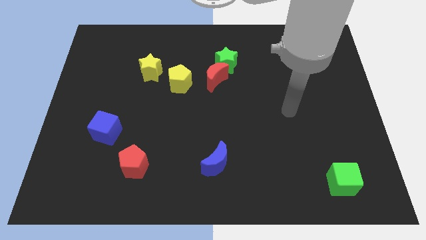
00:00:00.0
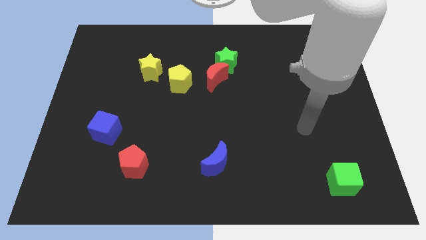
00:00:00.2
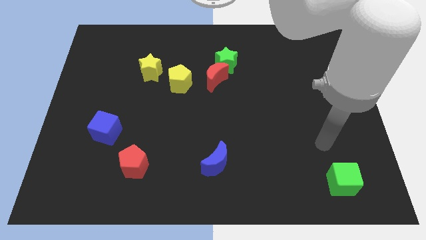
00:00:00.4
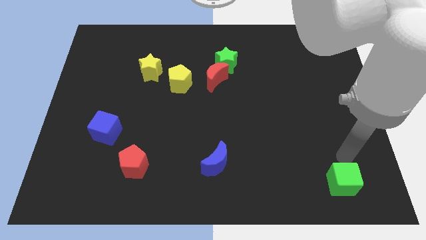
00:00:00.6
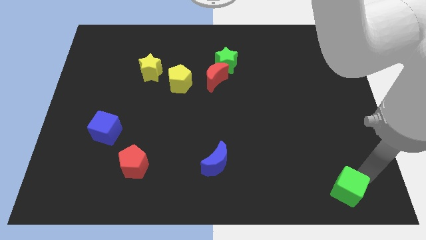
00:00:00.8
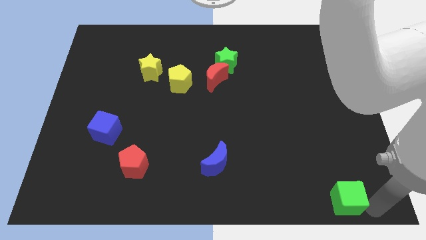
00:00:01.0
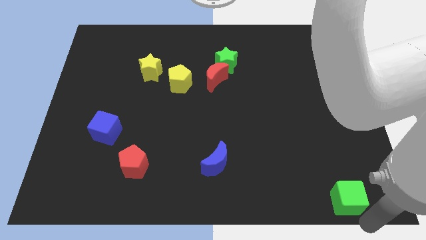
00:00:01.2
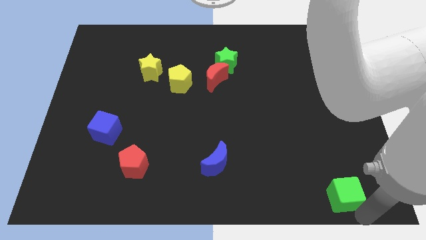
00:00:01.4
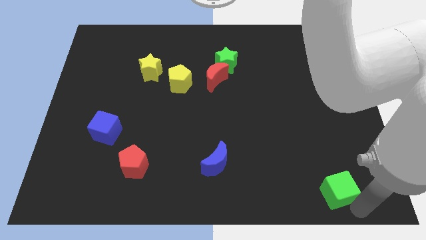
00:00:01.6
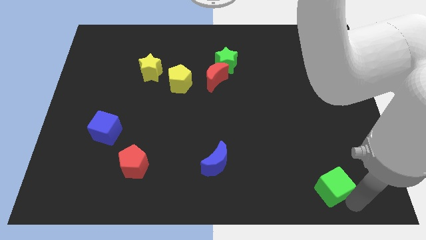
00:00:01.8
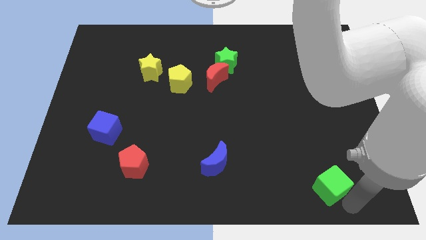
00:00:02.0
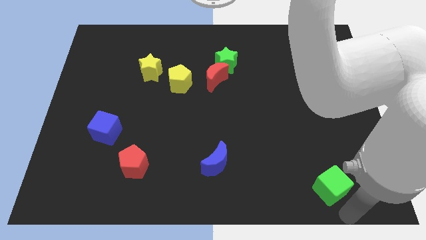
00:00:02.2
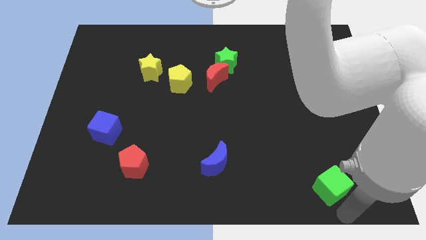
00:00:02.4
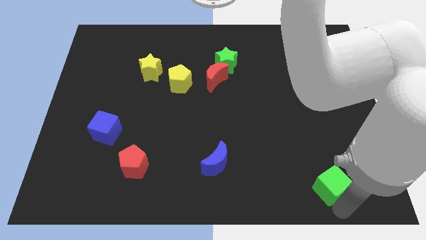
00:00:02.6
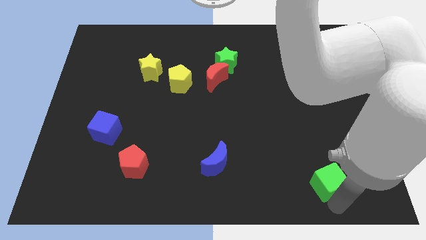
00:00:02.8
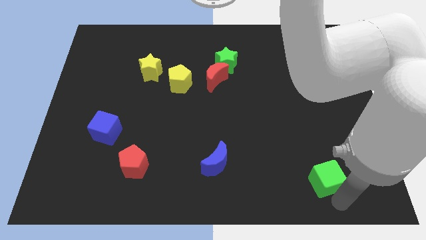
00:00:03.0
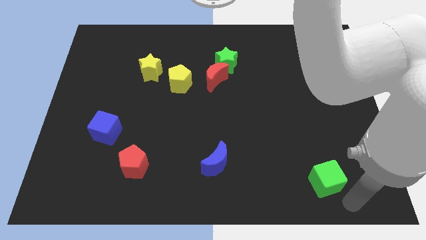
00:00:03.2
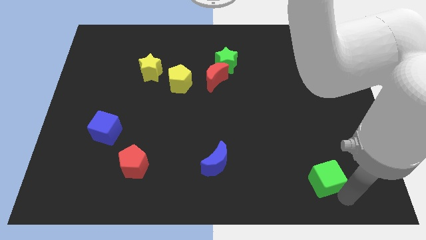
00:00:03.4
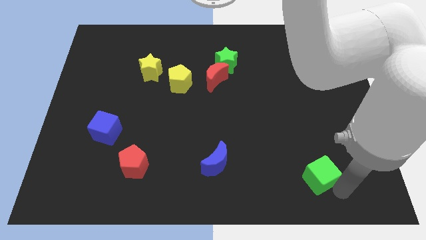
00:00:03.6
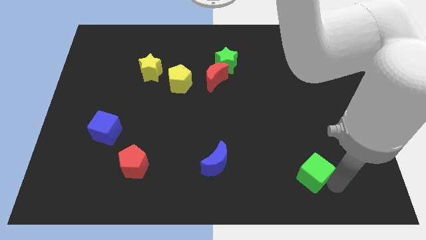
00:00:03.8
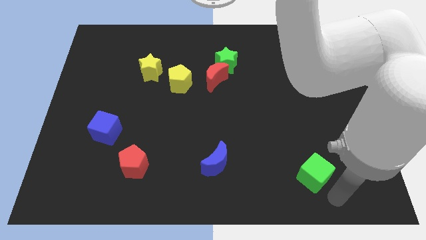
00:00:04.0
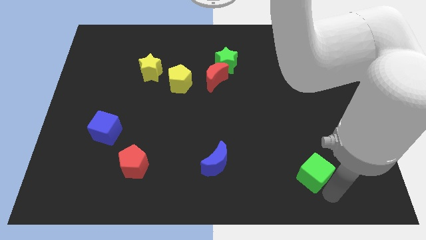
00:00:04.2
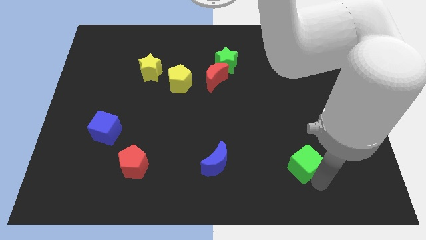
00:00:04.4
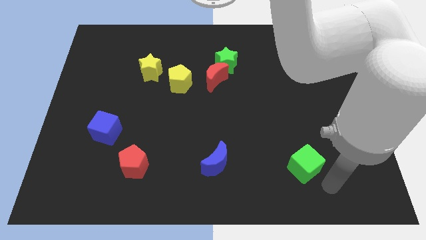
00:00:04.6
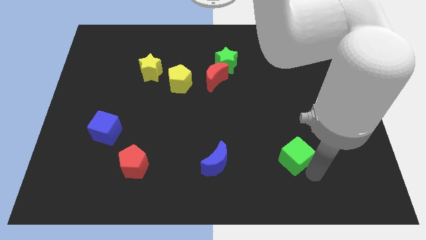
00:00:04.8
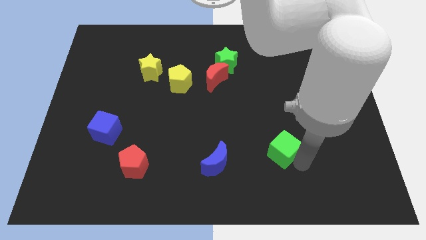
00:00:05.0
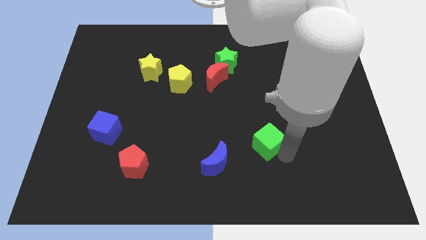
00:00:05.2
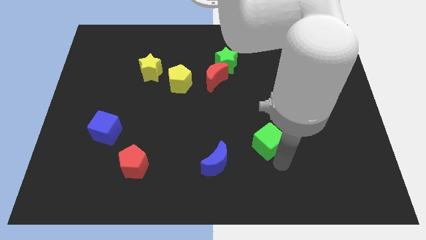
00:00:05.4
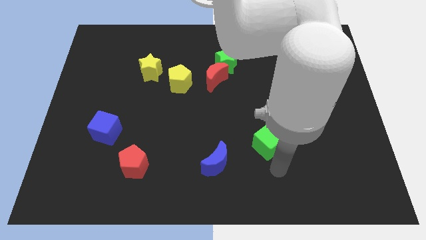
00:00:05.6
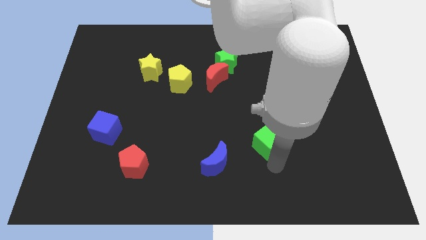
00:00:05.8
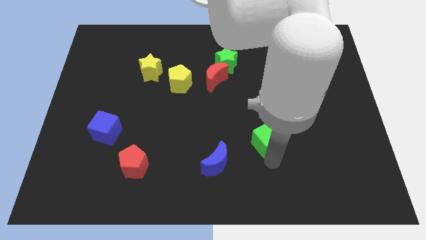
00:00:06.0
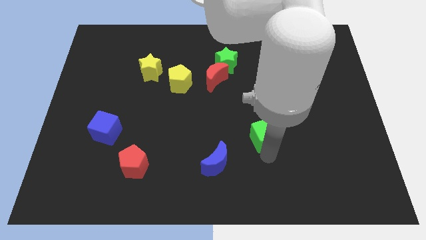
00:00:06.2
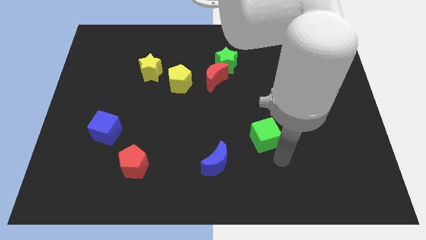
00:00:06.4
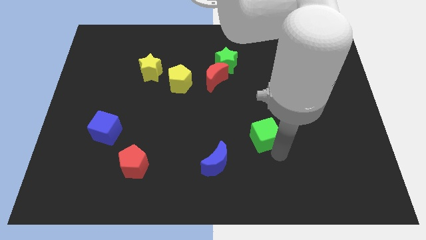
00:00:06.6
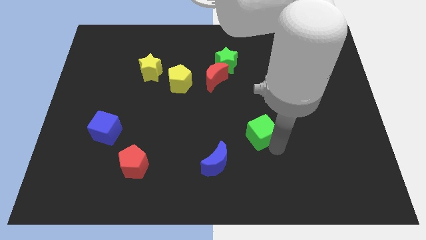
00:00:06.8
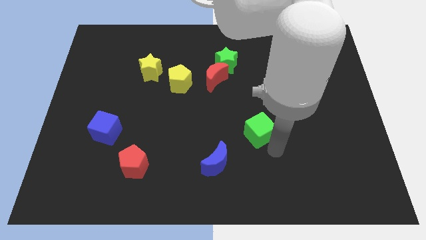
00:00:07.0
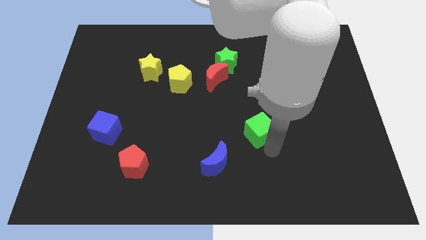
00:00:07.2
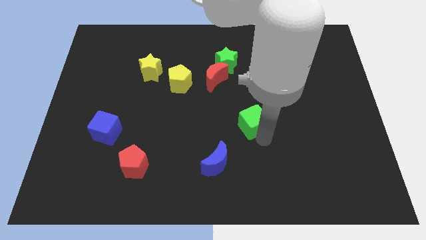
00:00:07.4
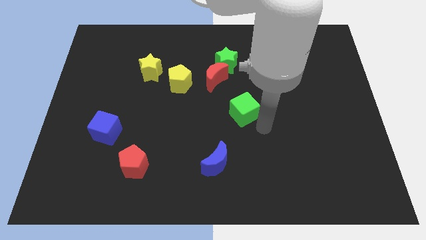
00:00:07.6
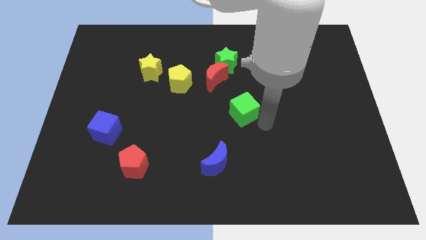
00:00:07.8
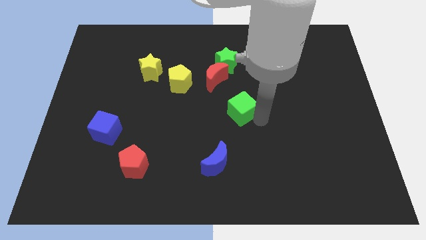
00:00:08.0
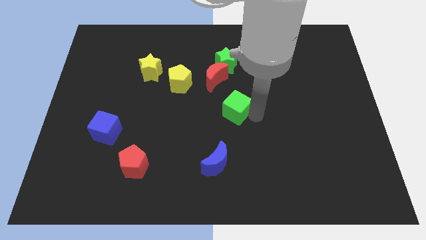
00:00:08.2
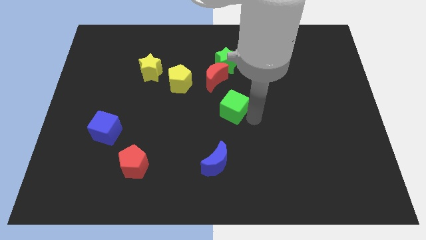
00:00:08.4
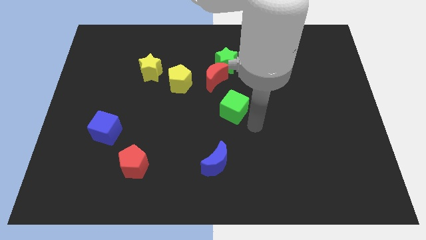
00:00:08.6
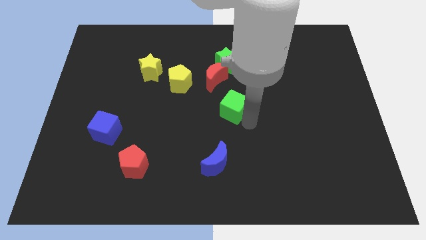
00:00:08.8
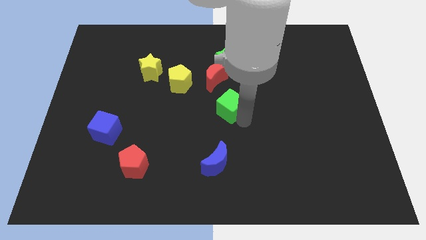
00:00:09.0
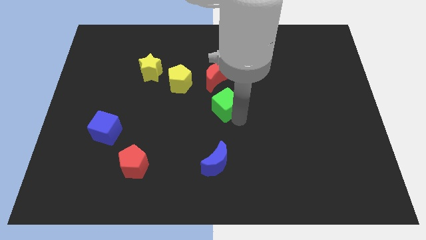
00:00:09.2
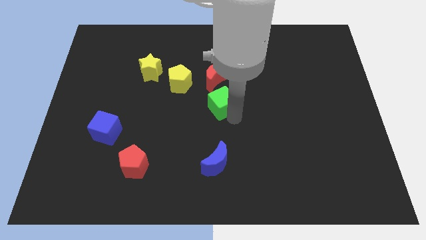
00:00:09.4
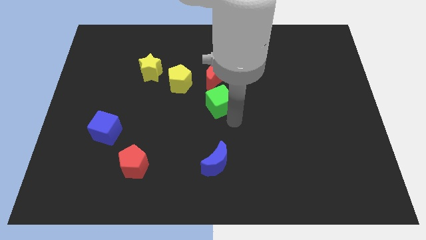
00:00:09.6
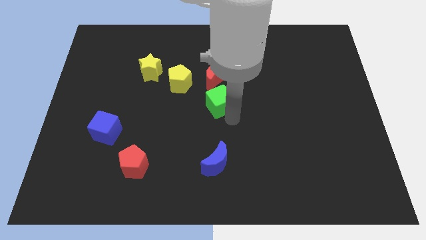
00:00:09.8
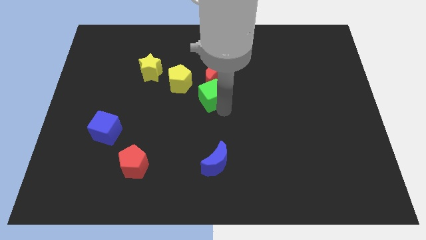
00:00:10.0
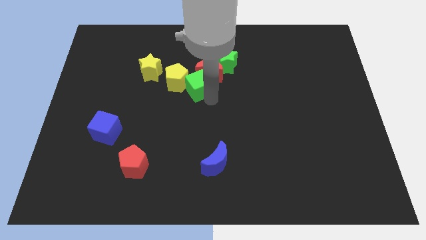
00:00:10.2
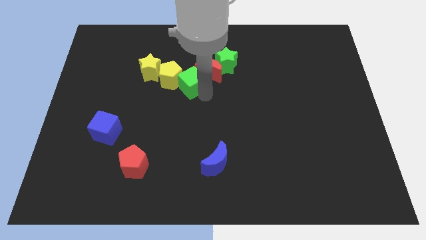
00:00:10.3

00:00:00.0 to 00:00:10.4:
push the green cube right of the yellow star

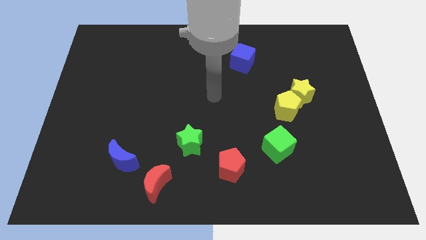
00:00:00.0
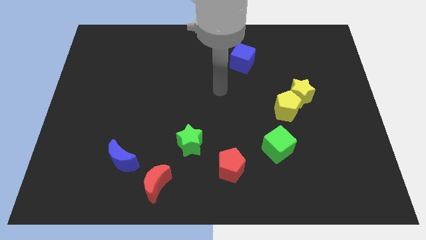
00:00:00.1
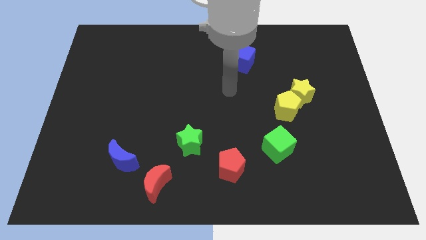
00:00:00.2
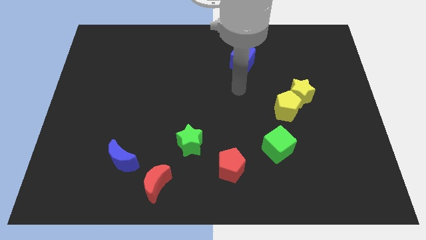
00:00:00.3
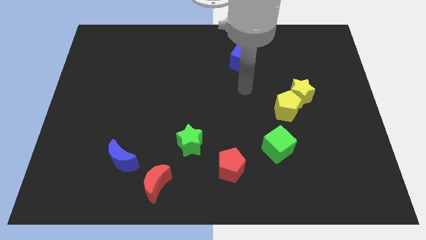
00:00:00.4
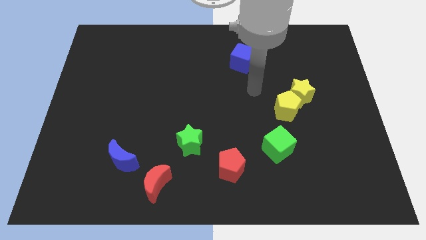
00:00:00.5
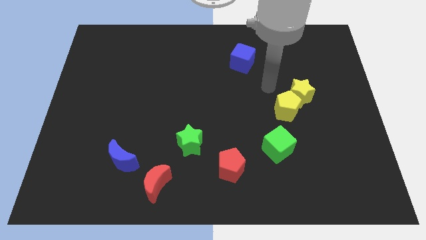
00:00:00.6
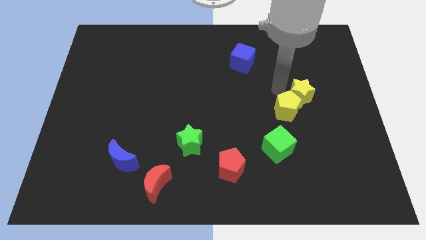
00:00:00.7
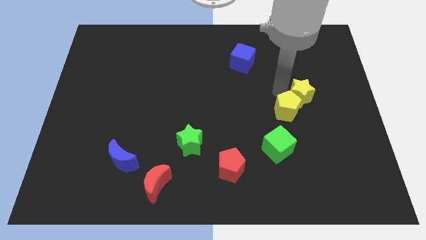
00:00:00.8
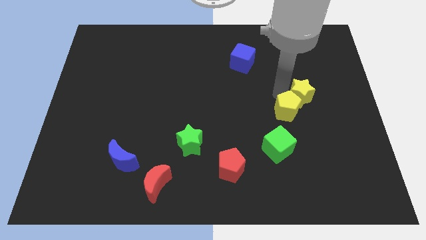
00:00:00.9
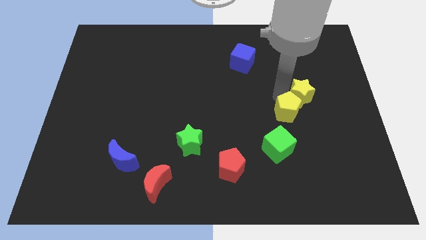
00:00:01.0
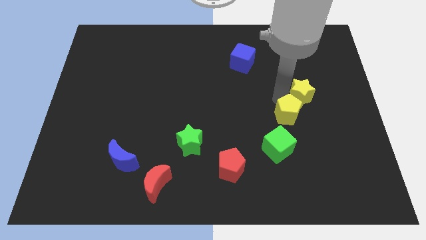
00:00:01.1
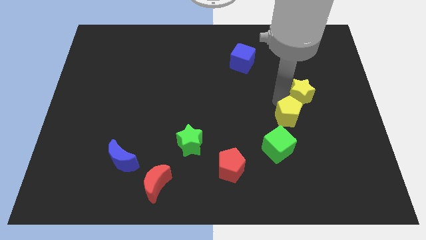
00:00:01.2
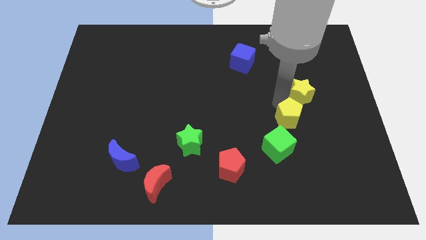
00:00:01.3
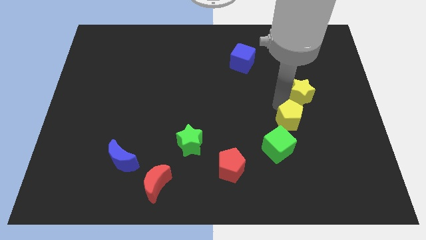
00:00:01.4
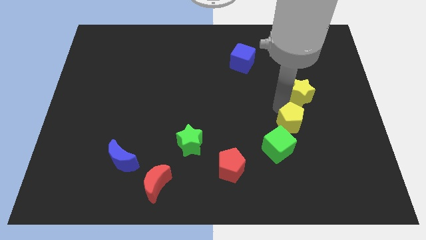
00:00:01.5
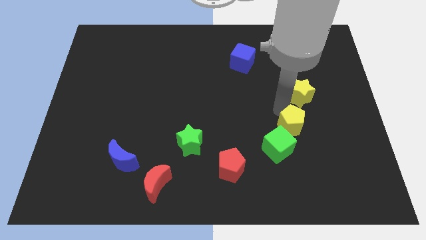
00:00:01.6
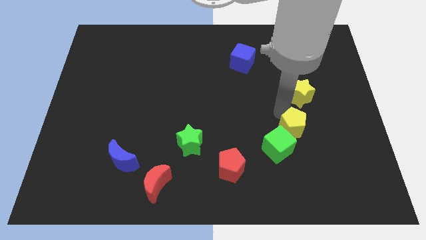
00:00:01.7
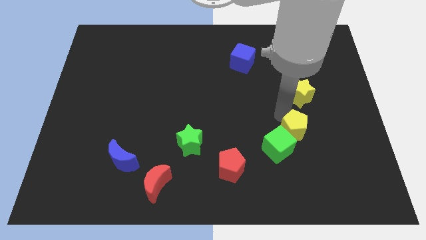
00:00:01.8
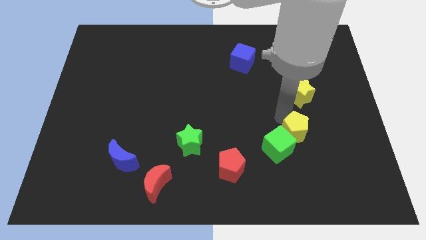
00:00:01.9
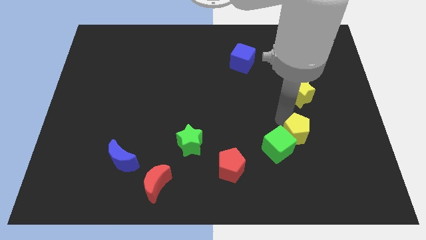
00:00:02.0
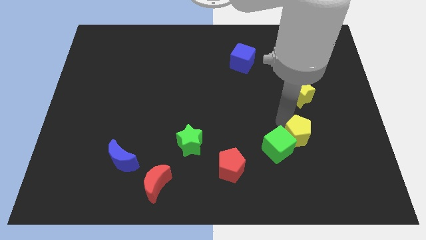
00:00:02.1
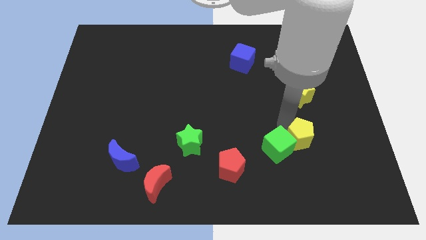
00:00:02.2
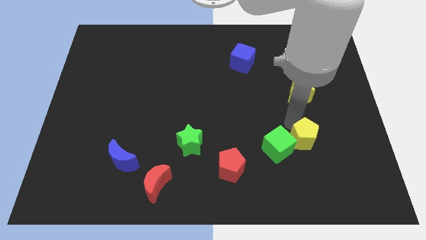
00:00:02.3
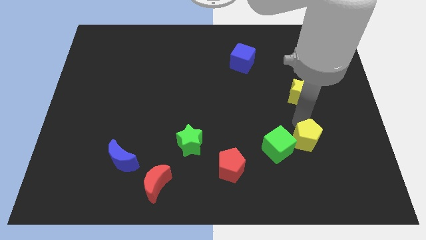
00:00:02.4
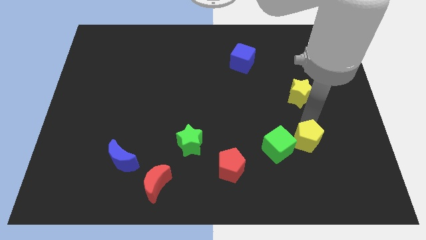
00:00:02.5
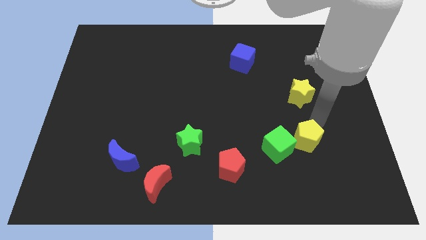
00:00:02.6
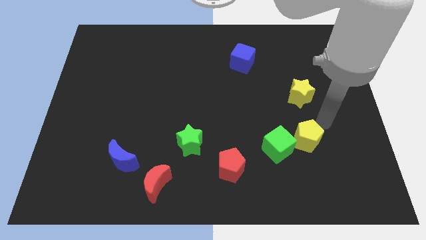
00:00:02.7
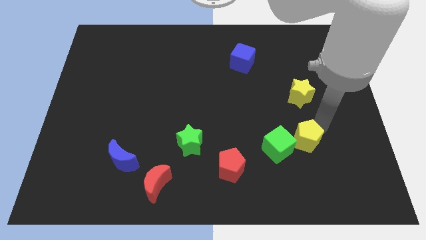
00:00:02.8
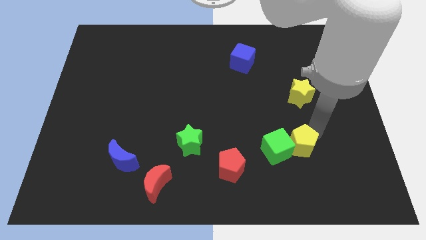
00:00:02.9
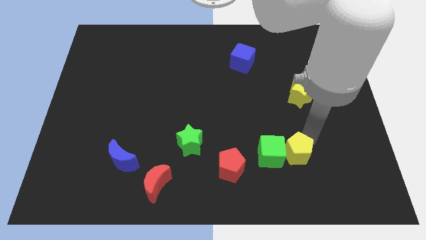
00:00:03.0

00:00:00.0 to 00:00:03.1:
slide the yellow pentagon just right of the red pentagon
